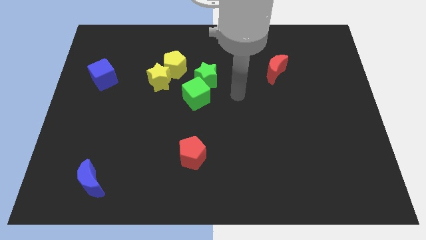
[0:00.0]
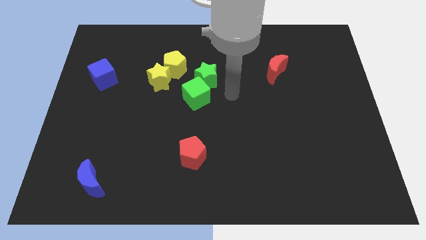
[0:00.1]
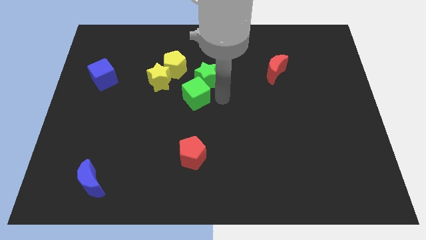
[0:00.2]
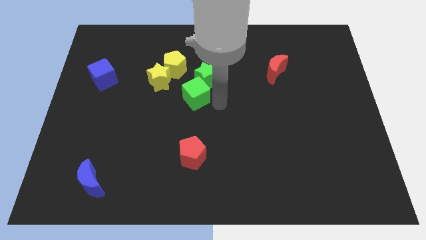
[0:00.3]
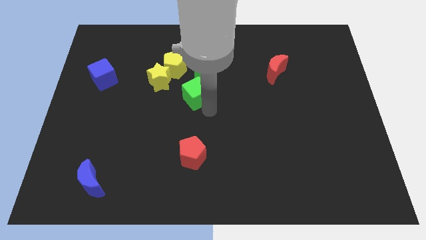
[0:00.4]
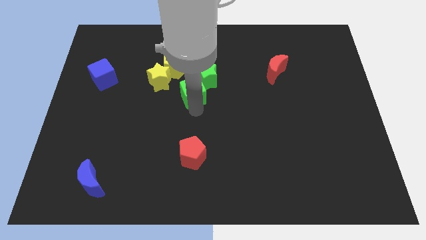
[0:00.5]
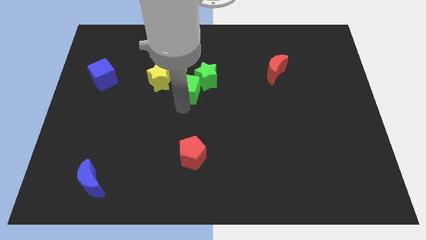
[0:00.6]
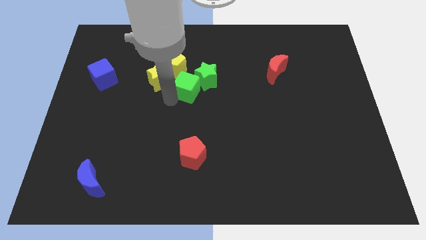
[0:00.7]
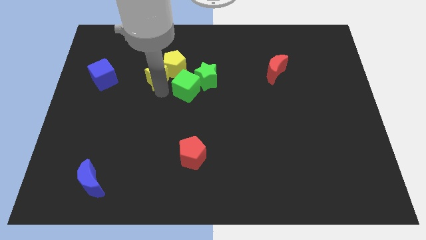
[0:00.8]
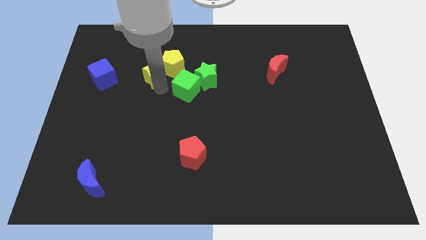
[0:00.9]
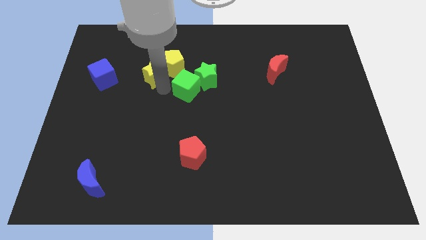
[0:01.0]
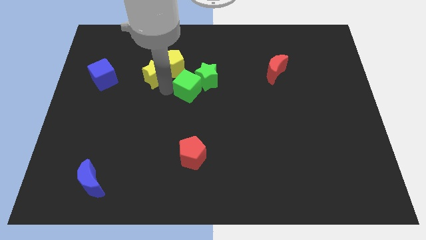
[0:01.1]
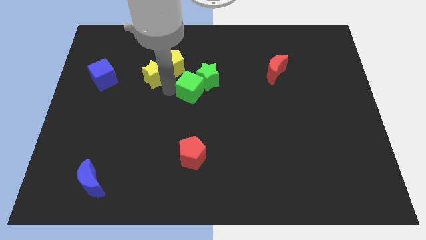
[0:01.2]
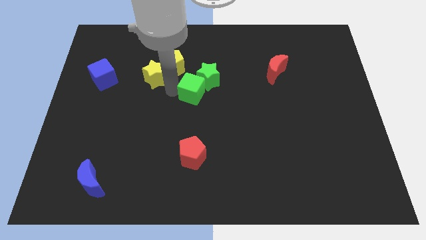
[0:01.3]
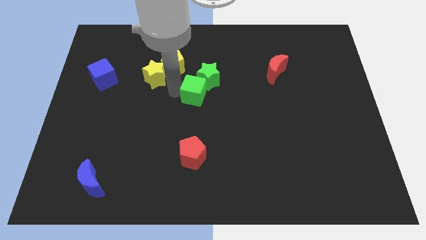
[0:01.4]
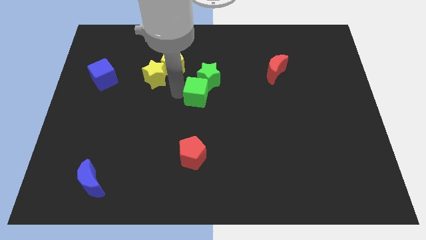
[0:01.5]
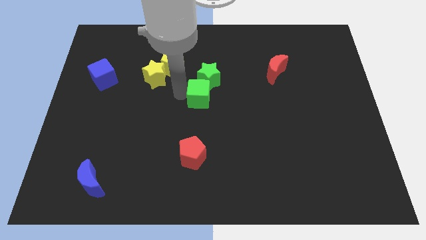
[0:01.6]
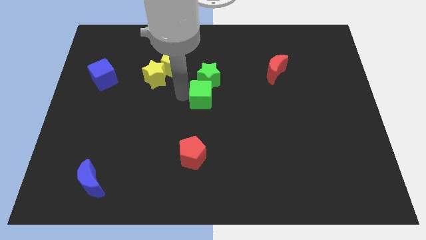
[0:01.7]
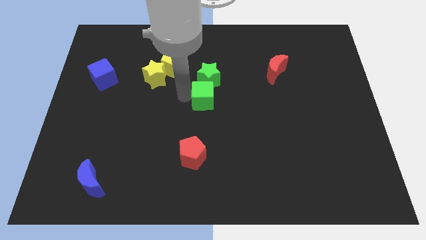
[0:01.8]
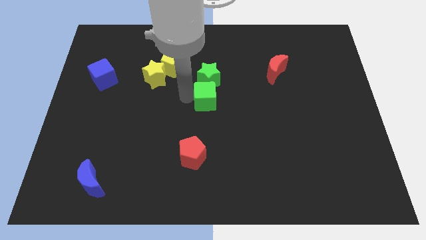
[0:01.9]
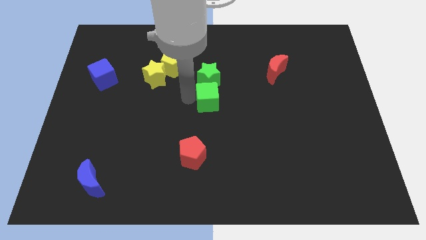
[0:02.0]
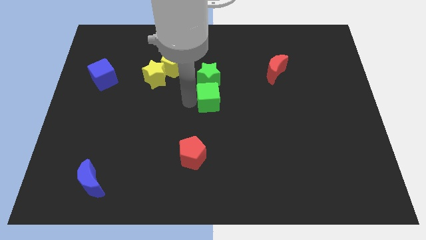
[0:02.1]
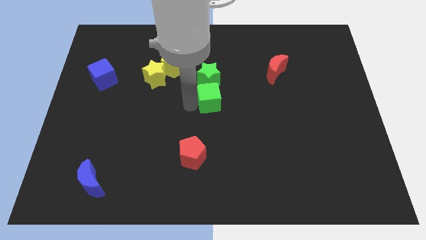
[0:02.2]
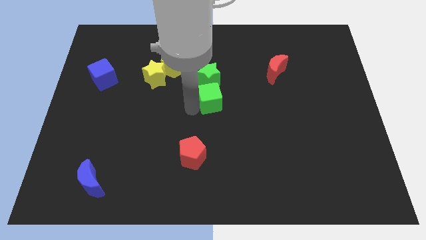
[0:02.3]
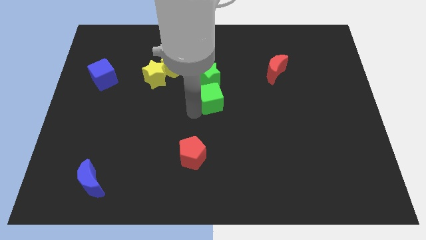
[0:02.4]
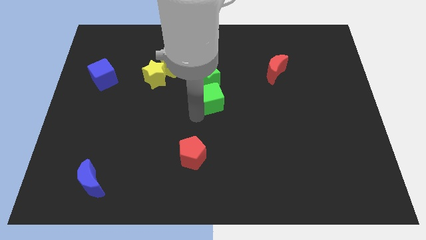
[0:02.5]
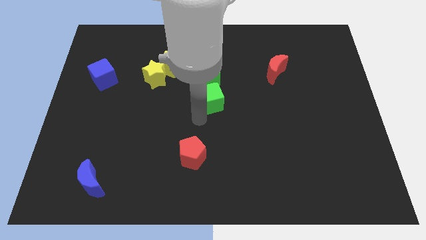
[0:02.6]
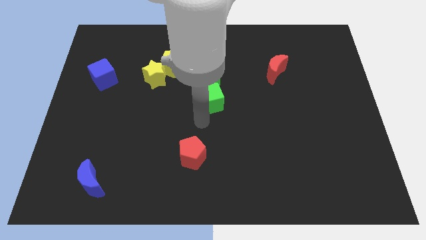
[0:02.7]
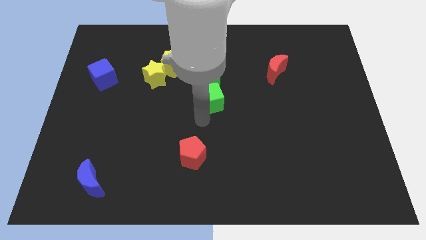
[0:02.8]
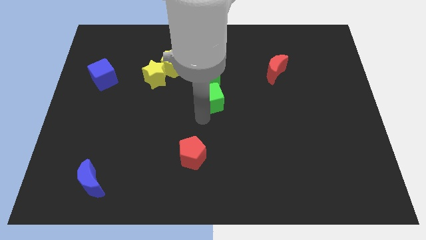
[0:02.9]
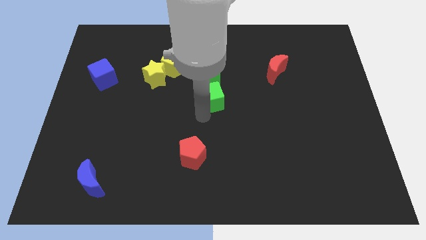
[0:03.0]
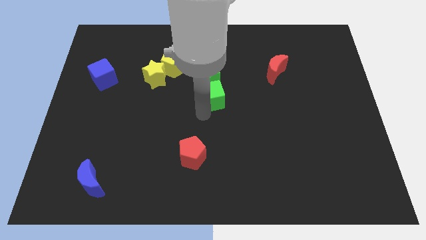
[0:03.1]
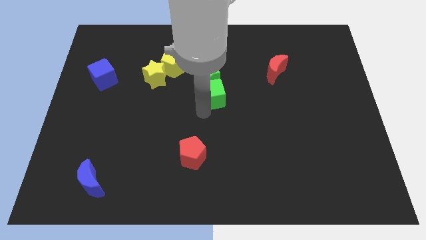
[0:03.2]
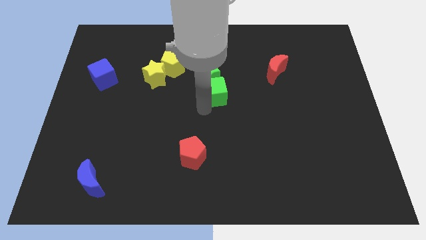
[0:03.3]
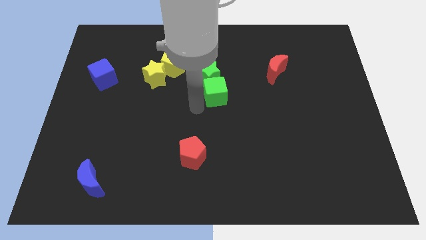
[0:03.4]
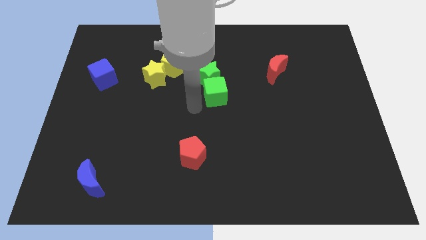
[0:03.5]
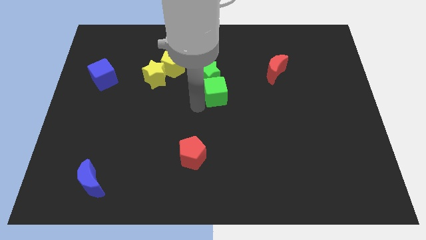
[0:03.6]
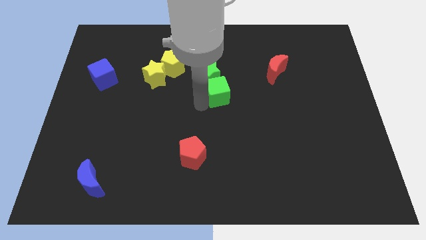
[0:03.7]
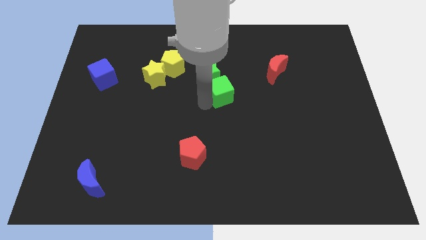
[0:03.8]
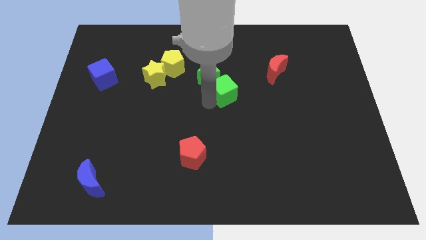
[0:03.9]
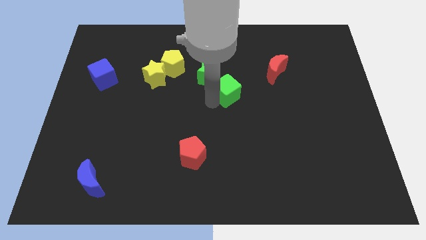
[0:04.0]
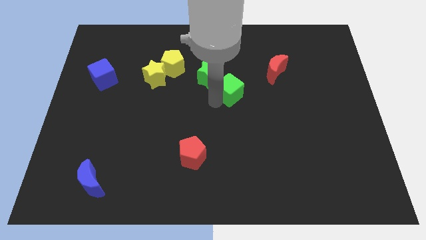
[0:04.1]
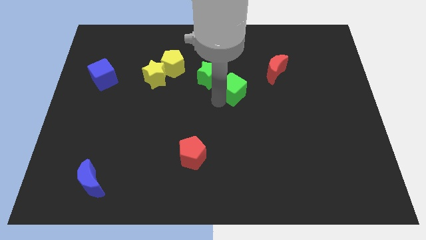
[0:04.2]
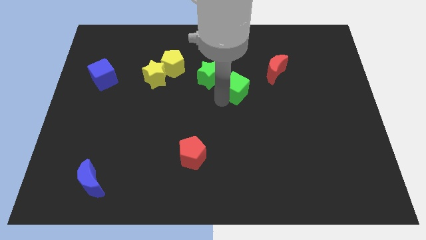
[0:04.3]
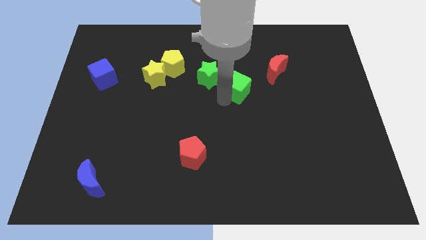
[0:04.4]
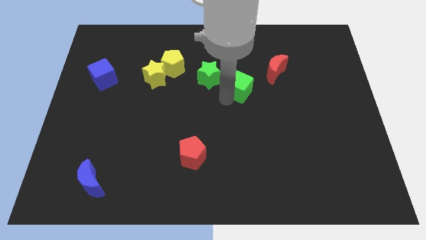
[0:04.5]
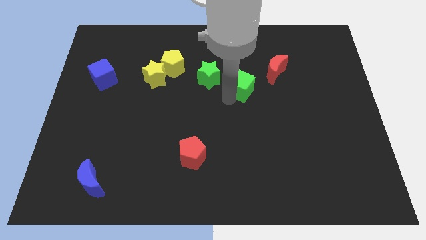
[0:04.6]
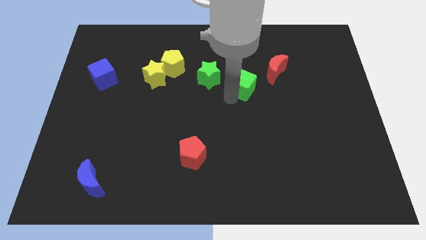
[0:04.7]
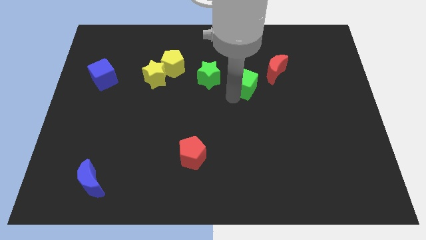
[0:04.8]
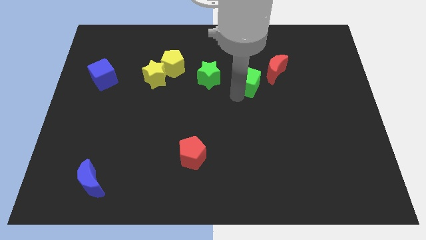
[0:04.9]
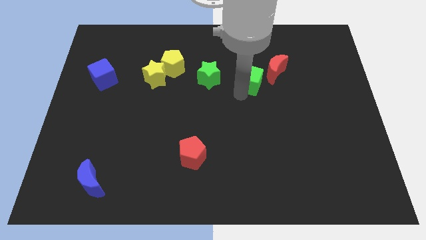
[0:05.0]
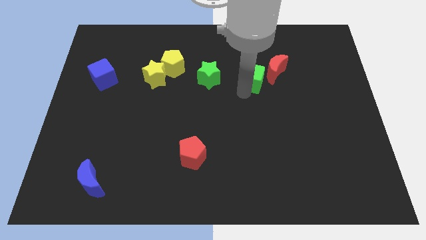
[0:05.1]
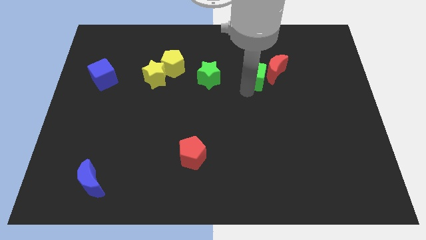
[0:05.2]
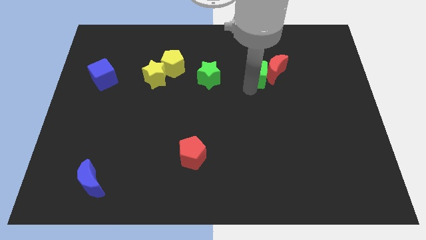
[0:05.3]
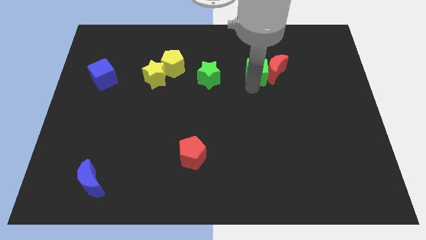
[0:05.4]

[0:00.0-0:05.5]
move the green cube to the top left of the red moon

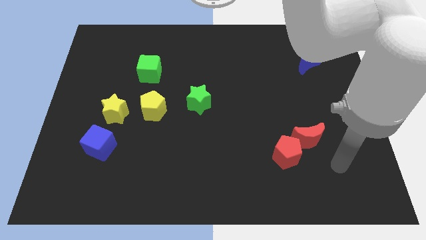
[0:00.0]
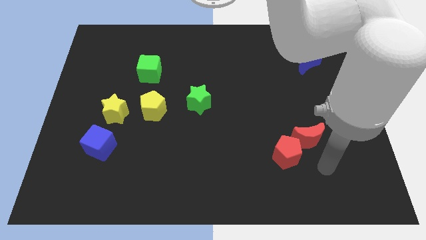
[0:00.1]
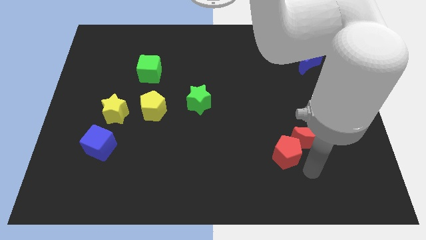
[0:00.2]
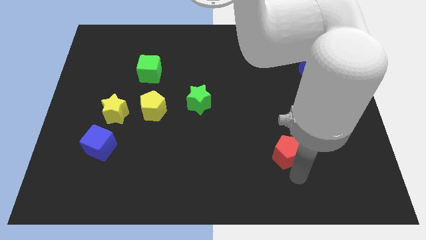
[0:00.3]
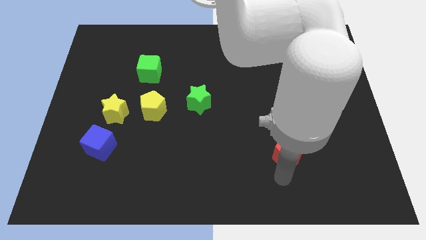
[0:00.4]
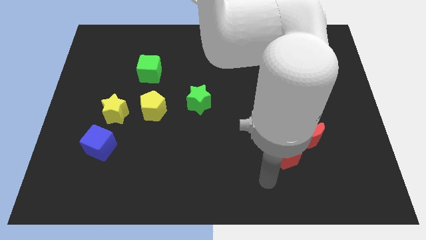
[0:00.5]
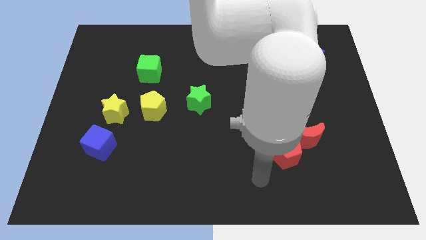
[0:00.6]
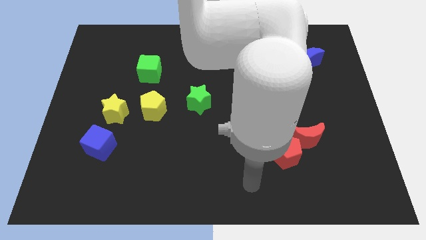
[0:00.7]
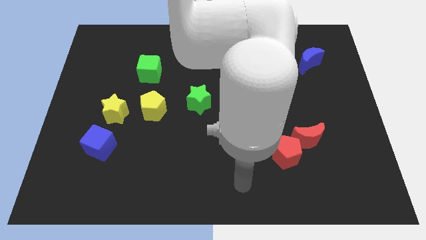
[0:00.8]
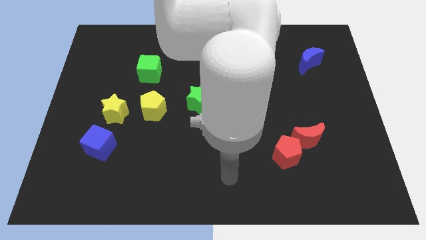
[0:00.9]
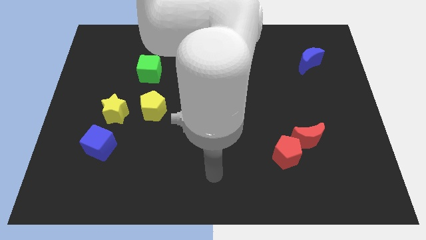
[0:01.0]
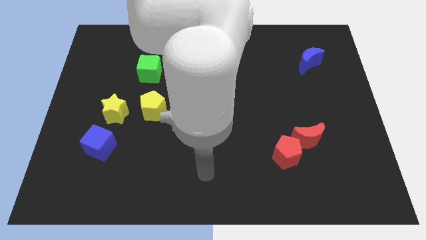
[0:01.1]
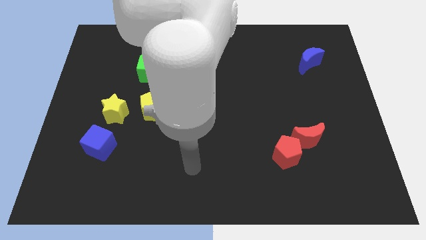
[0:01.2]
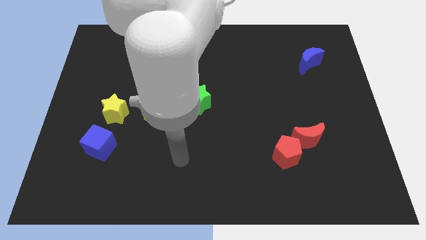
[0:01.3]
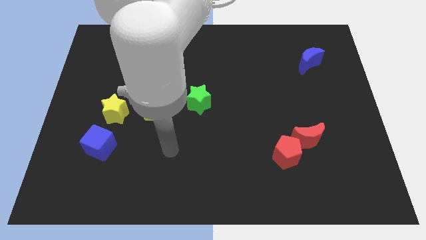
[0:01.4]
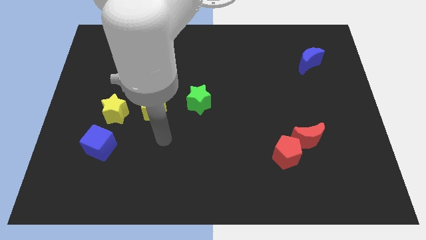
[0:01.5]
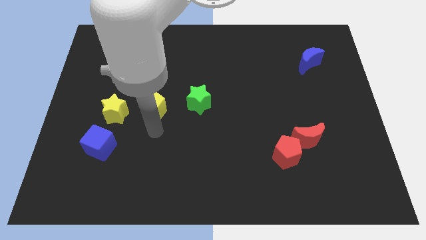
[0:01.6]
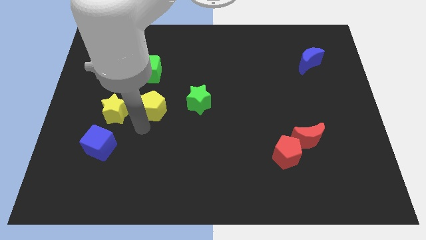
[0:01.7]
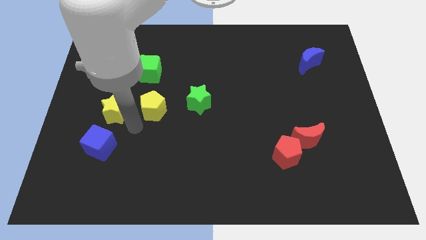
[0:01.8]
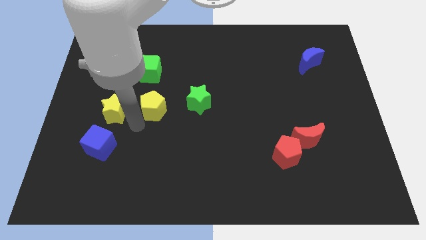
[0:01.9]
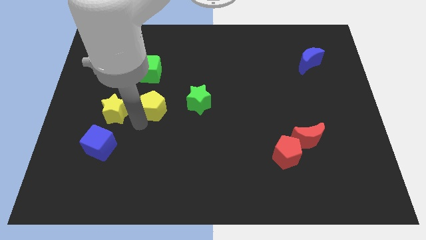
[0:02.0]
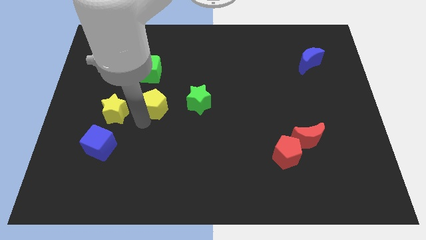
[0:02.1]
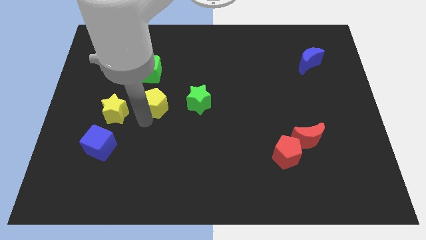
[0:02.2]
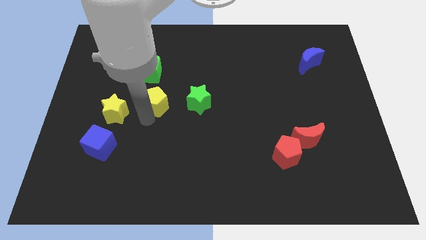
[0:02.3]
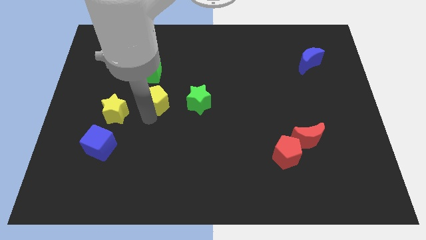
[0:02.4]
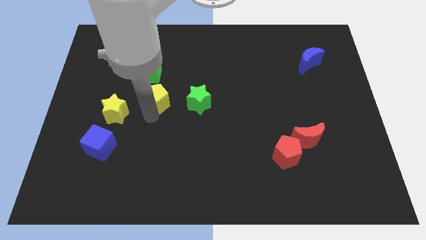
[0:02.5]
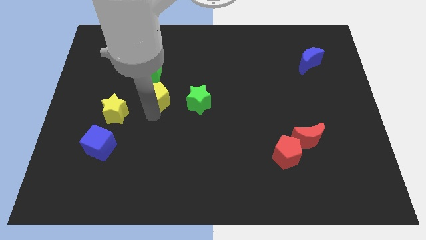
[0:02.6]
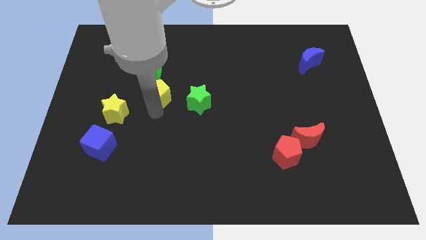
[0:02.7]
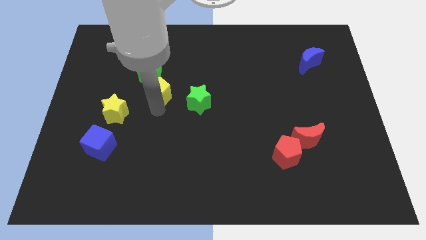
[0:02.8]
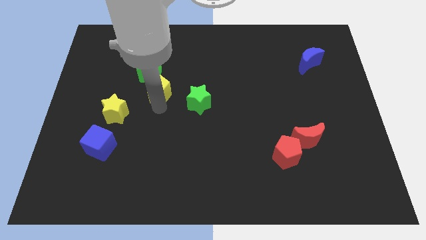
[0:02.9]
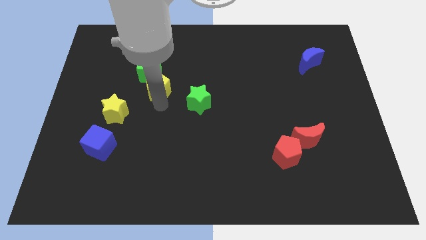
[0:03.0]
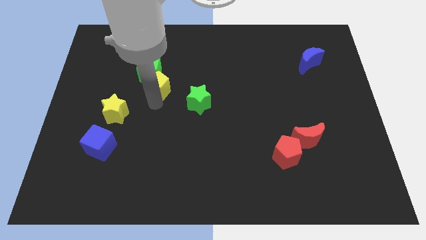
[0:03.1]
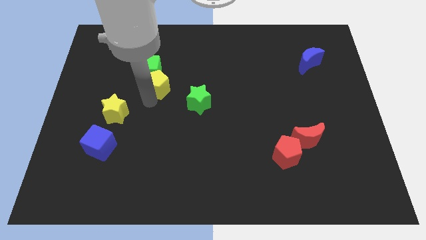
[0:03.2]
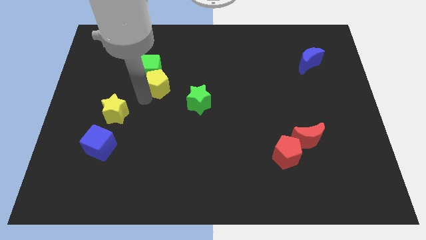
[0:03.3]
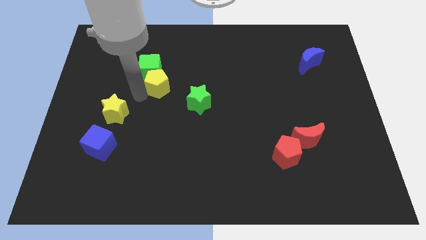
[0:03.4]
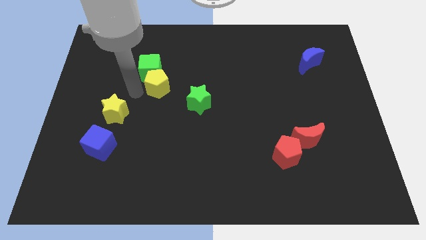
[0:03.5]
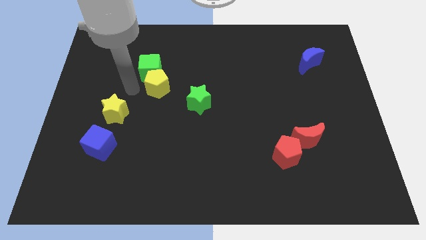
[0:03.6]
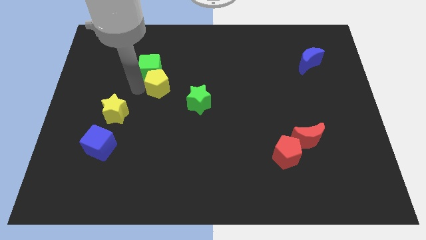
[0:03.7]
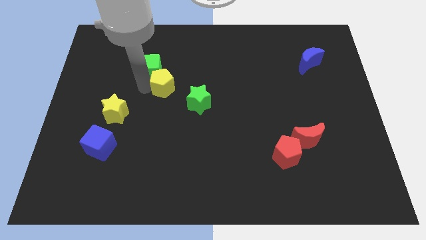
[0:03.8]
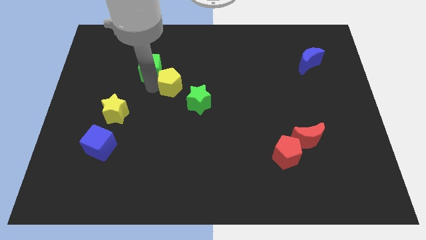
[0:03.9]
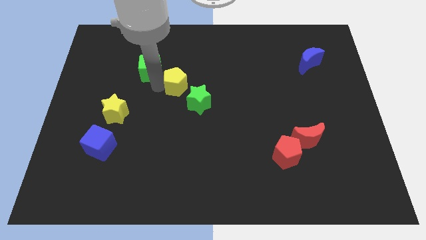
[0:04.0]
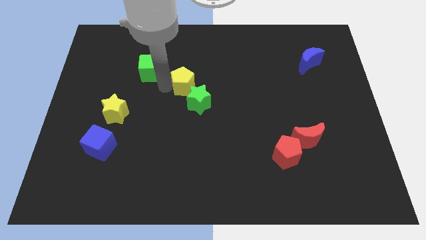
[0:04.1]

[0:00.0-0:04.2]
push the yellow pentagon to the top side of the green star
